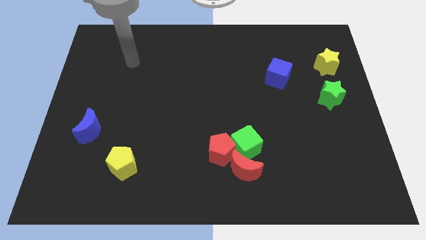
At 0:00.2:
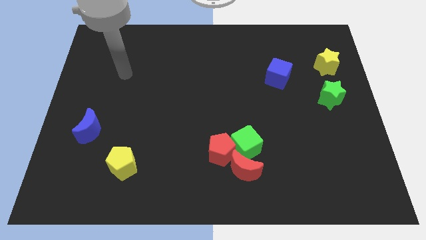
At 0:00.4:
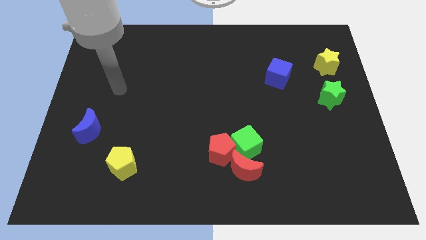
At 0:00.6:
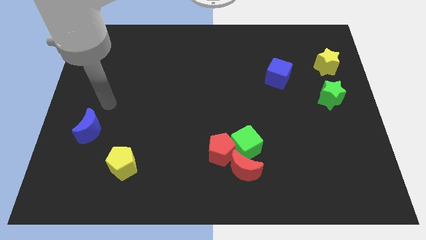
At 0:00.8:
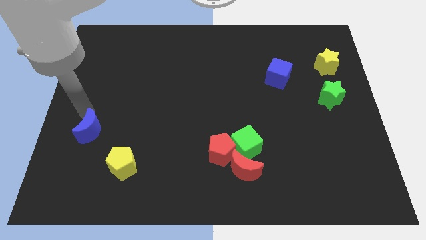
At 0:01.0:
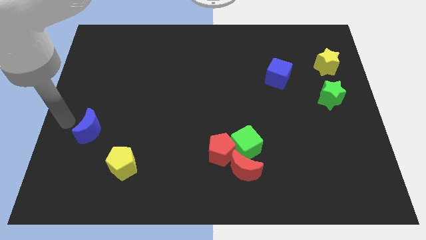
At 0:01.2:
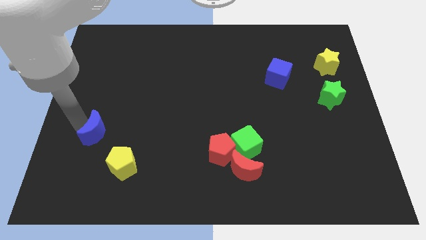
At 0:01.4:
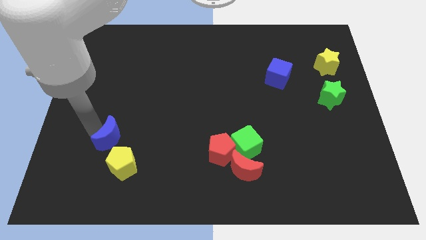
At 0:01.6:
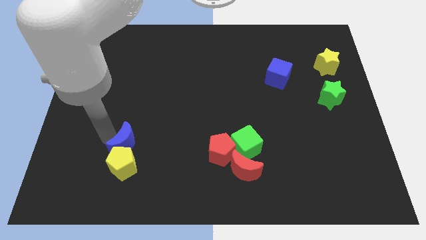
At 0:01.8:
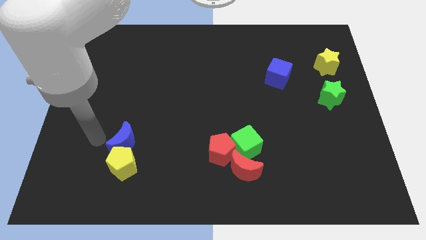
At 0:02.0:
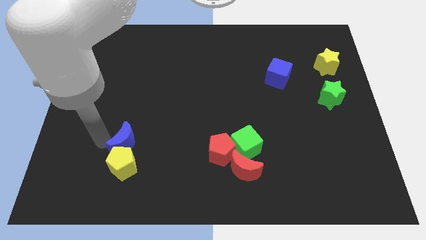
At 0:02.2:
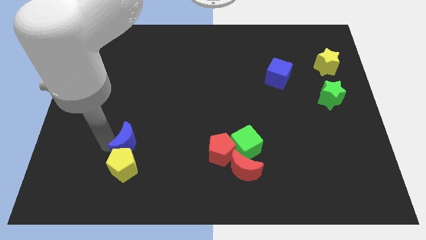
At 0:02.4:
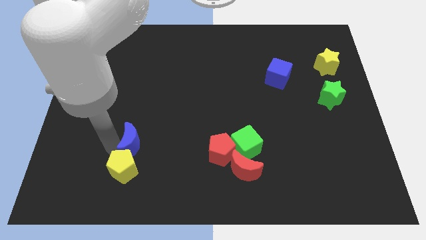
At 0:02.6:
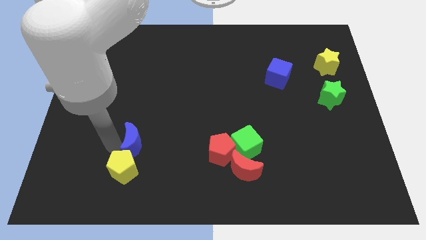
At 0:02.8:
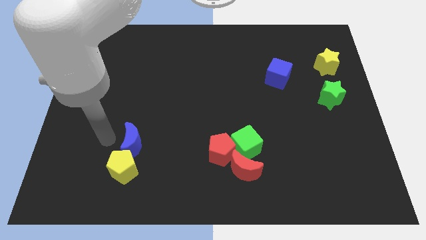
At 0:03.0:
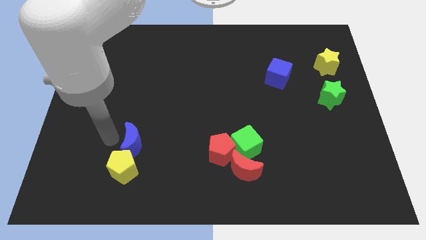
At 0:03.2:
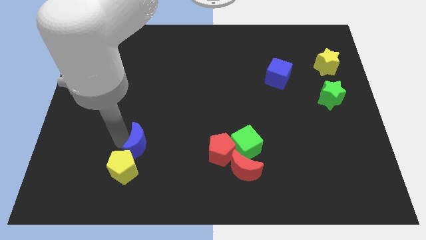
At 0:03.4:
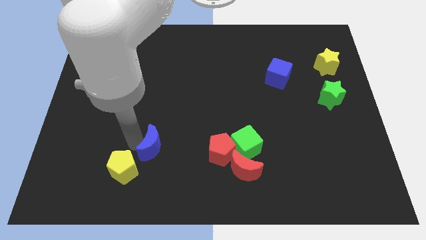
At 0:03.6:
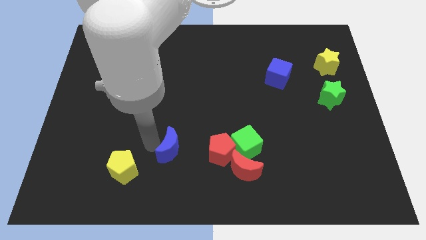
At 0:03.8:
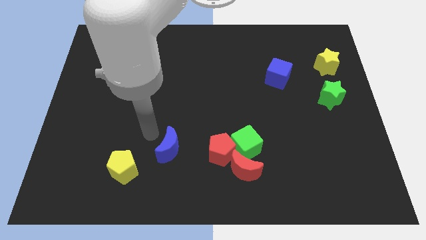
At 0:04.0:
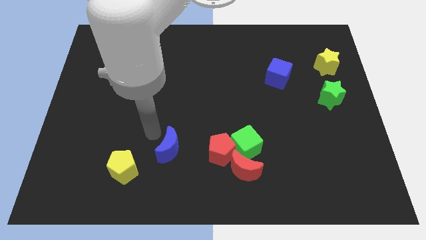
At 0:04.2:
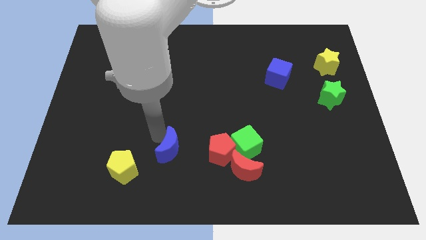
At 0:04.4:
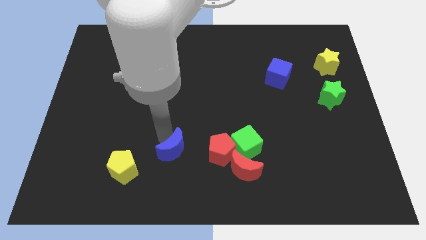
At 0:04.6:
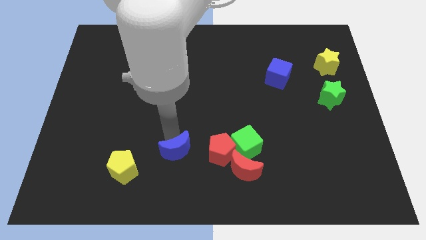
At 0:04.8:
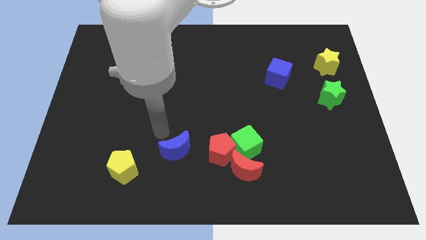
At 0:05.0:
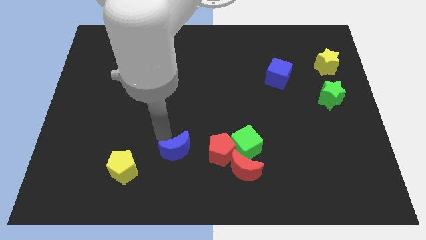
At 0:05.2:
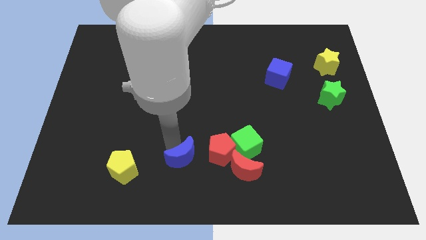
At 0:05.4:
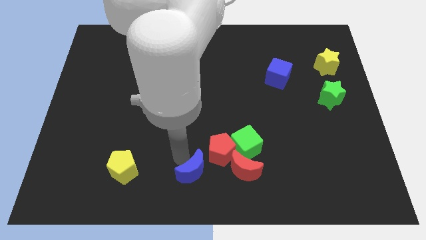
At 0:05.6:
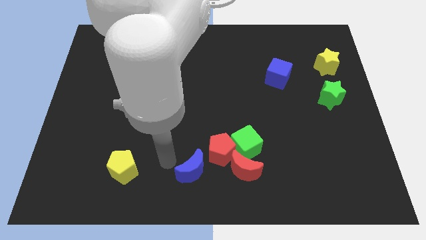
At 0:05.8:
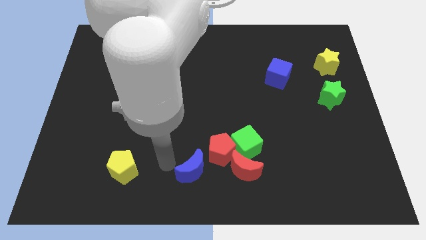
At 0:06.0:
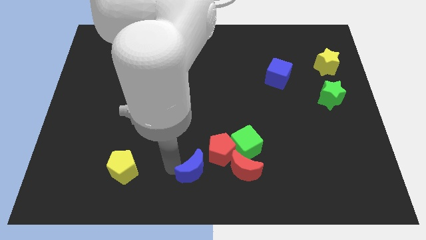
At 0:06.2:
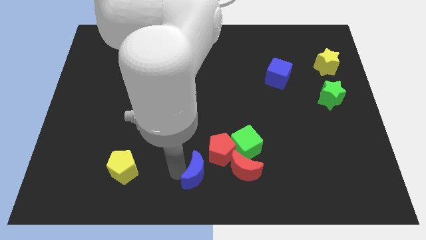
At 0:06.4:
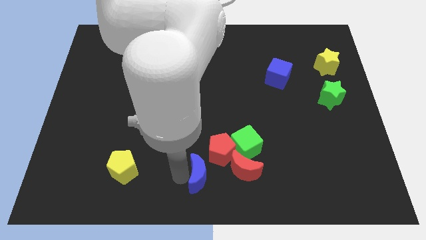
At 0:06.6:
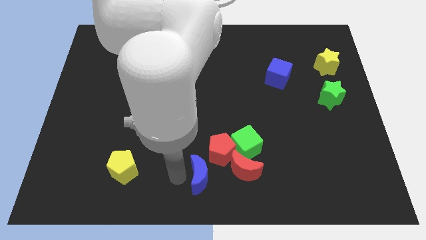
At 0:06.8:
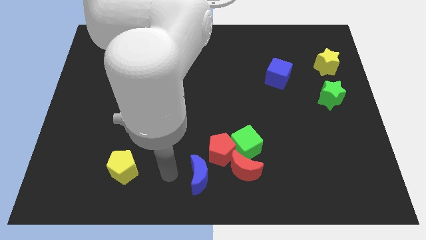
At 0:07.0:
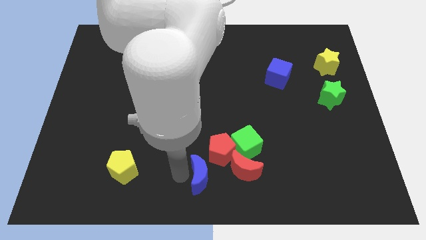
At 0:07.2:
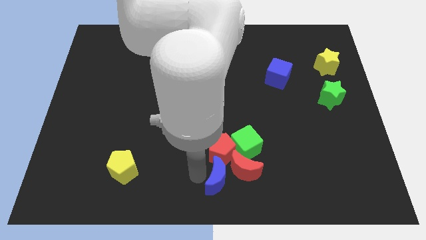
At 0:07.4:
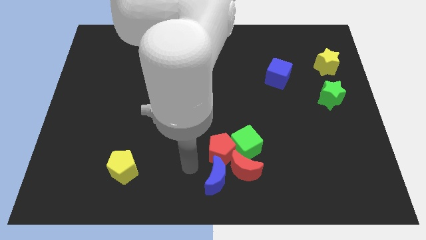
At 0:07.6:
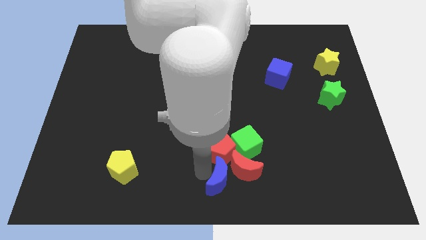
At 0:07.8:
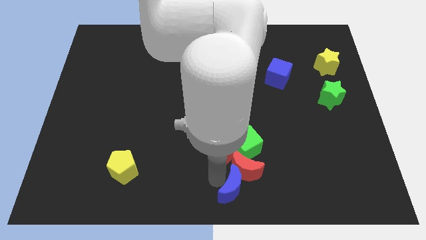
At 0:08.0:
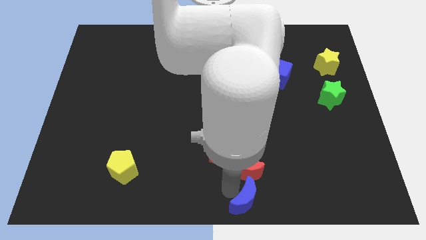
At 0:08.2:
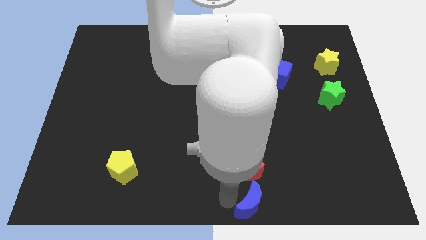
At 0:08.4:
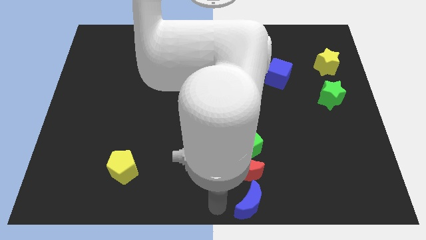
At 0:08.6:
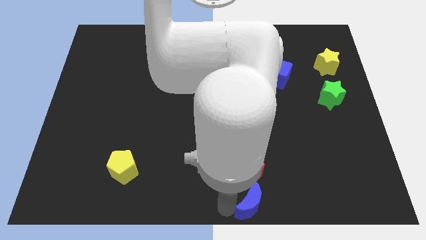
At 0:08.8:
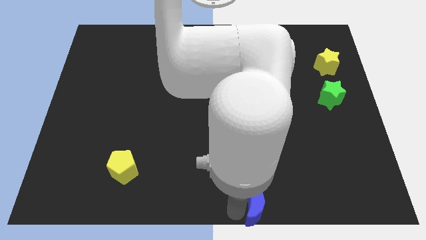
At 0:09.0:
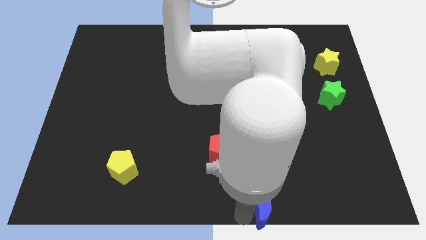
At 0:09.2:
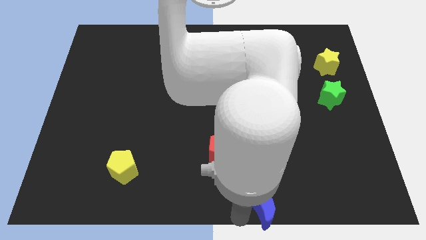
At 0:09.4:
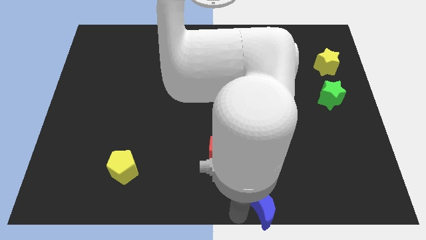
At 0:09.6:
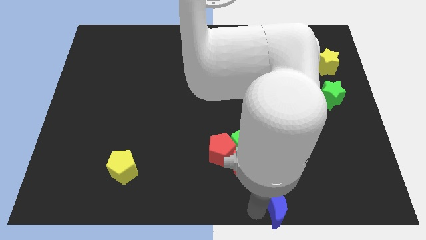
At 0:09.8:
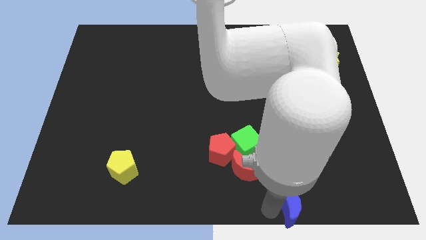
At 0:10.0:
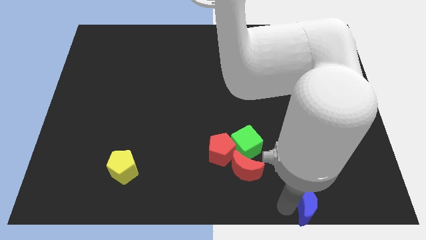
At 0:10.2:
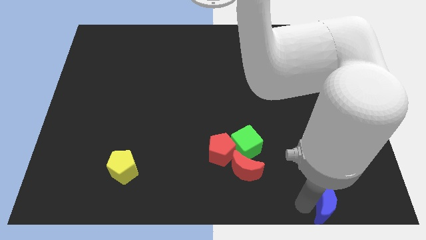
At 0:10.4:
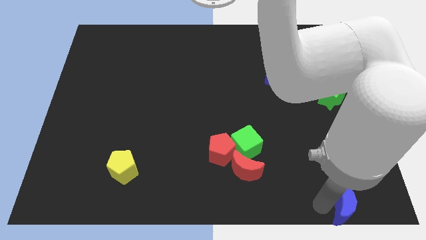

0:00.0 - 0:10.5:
move the blue moon to the bottom right corner
